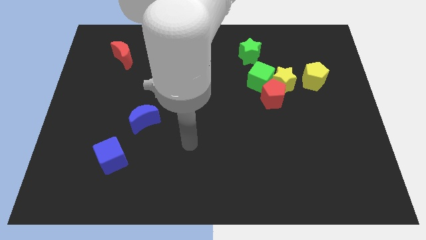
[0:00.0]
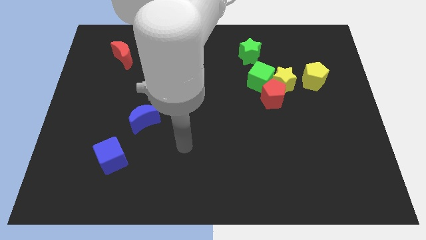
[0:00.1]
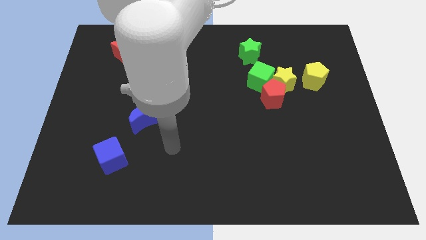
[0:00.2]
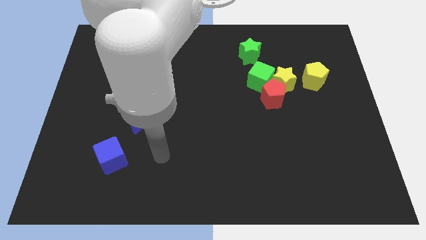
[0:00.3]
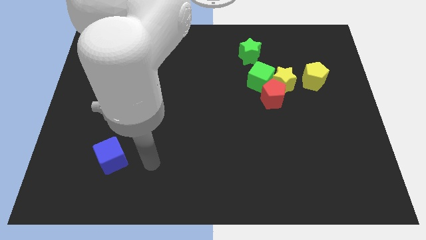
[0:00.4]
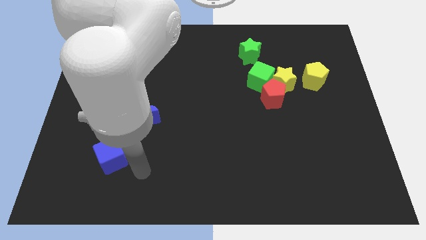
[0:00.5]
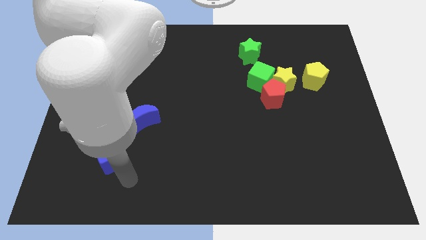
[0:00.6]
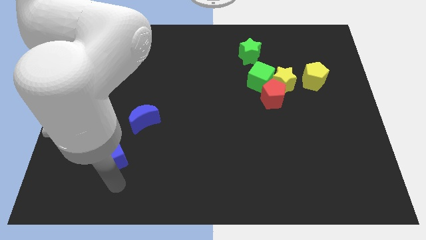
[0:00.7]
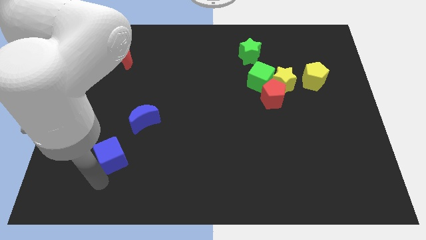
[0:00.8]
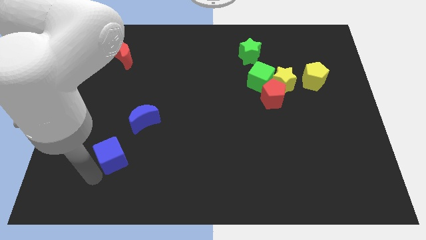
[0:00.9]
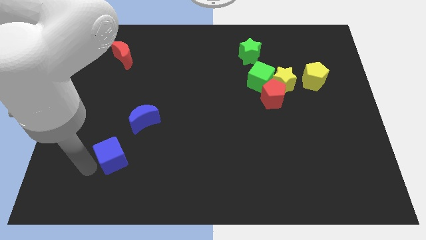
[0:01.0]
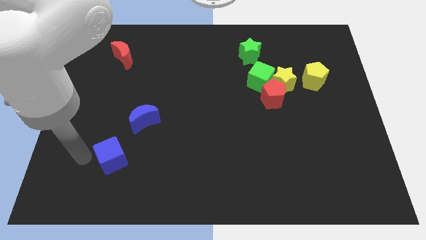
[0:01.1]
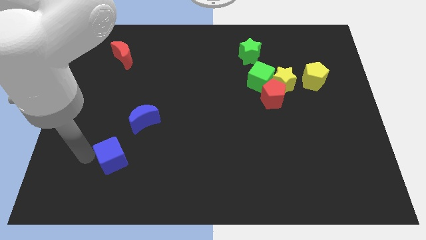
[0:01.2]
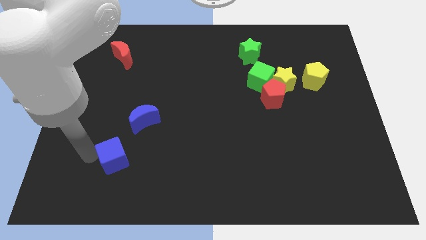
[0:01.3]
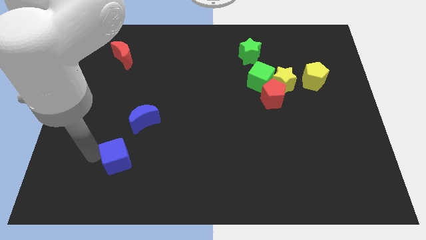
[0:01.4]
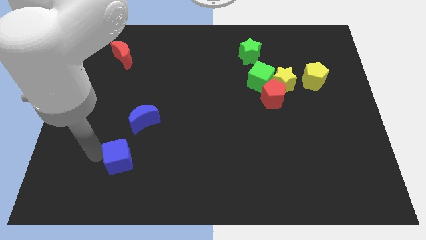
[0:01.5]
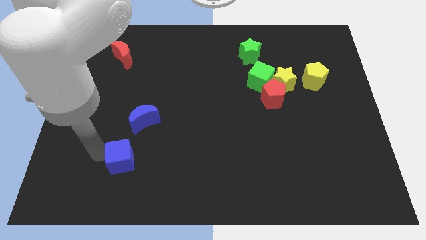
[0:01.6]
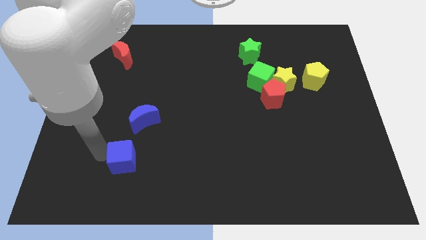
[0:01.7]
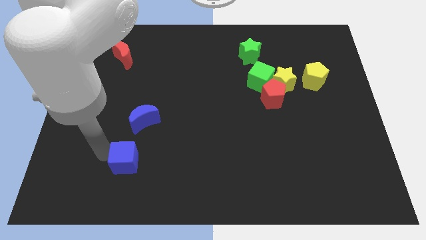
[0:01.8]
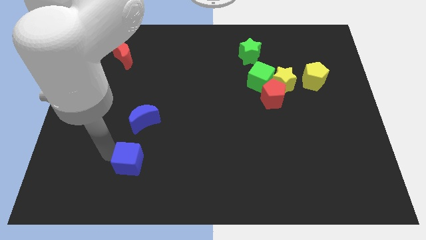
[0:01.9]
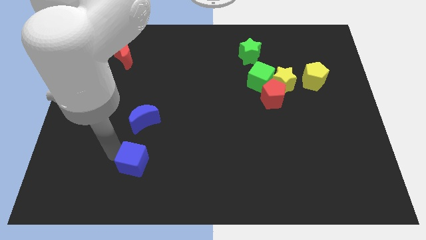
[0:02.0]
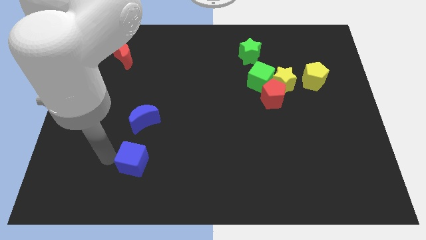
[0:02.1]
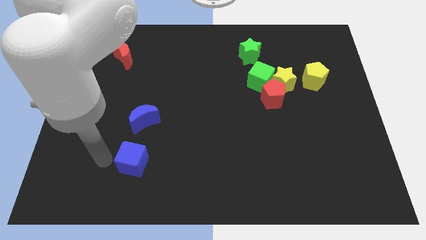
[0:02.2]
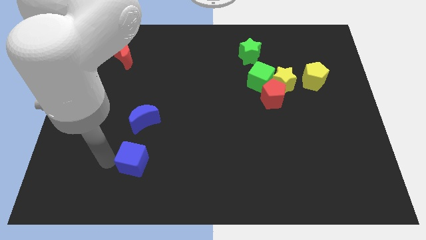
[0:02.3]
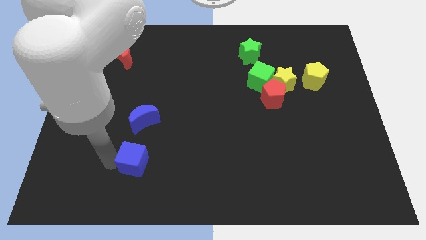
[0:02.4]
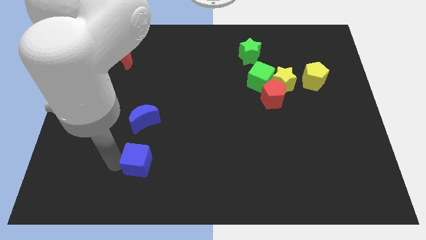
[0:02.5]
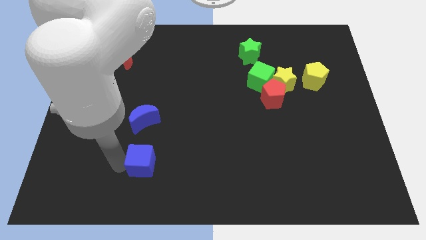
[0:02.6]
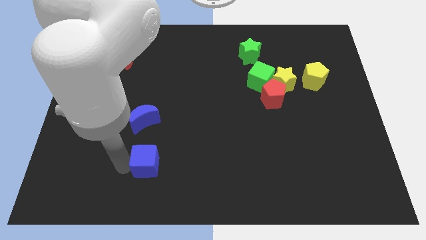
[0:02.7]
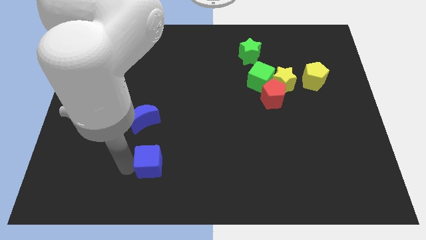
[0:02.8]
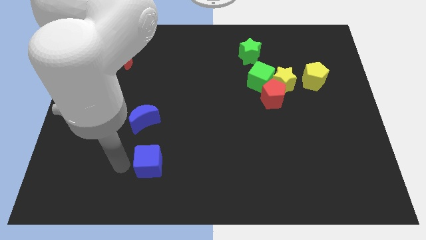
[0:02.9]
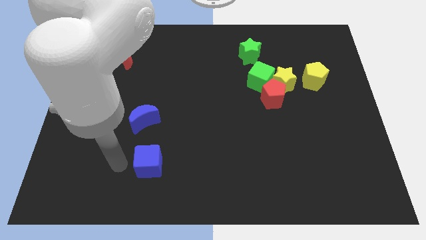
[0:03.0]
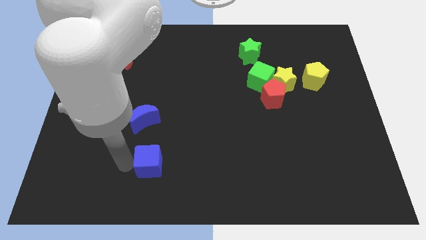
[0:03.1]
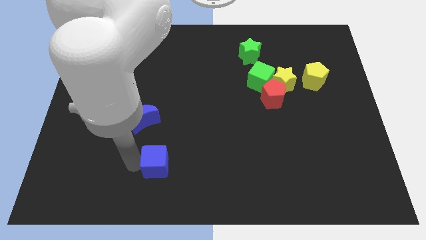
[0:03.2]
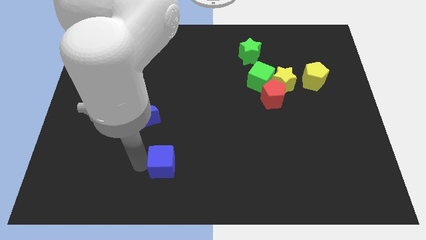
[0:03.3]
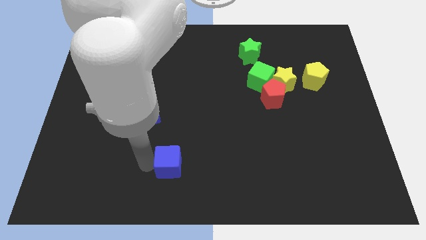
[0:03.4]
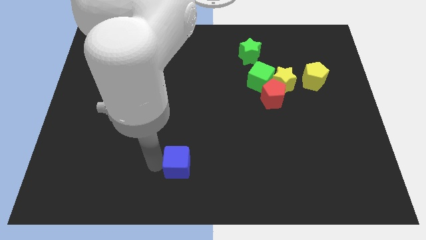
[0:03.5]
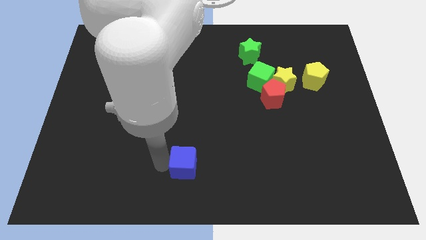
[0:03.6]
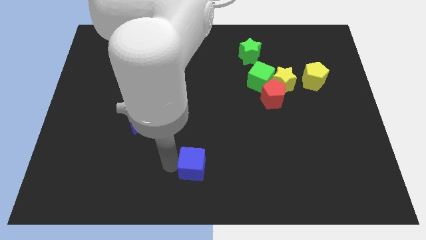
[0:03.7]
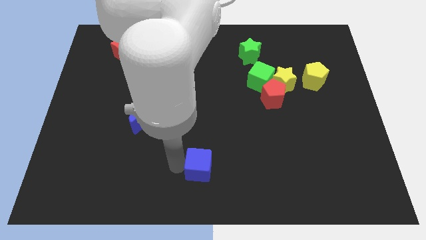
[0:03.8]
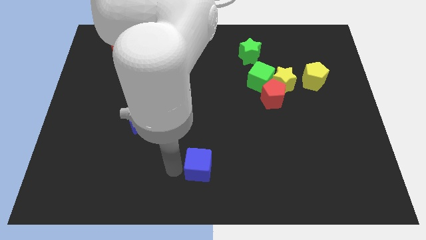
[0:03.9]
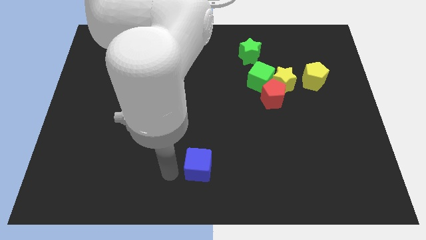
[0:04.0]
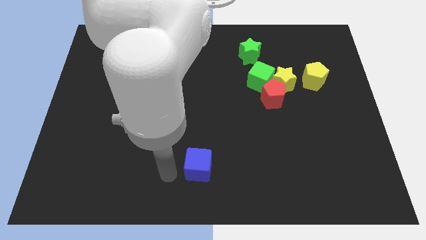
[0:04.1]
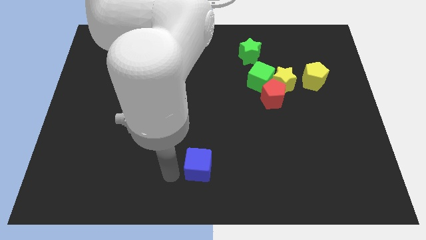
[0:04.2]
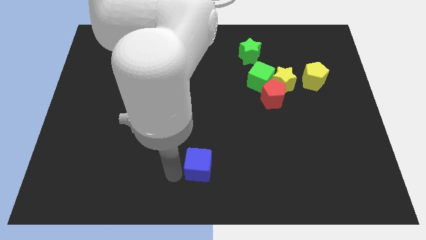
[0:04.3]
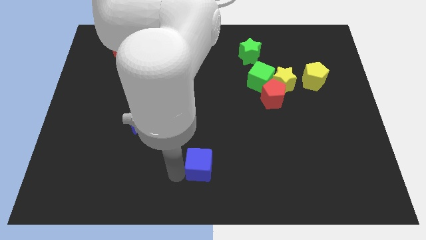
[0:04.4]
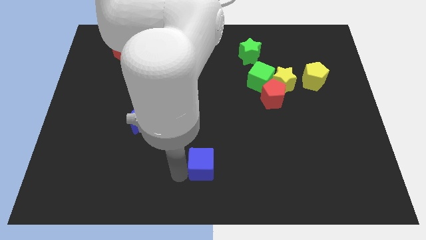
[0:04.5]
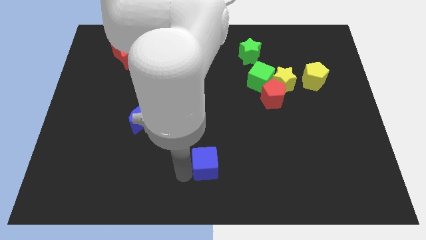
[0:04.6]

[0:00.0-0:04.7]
slide the blue cube to the right

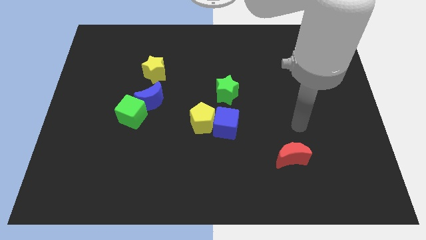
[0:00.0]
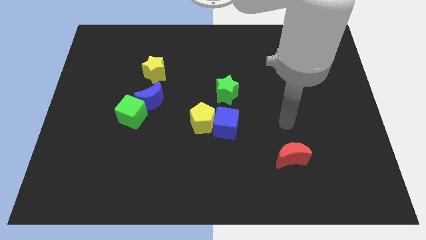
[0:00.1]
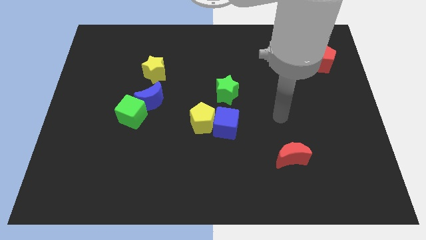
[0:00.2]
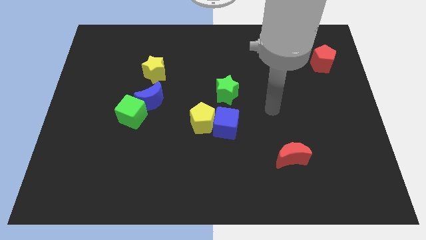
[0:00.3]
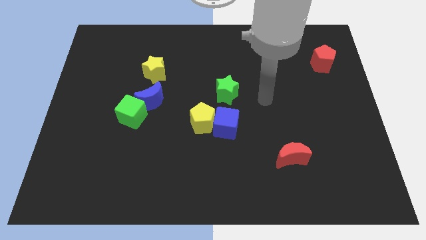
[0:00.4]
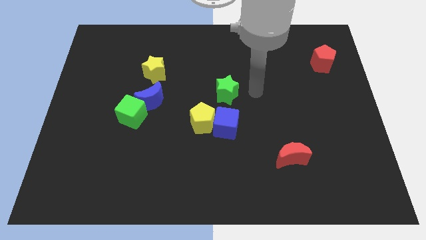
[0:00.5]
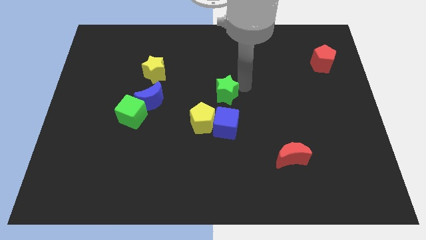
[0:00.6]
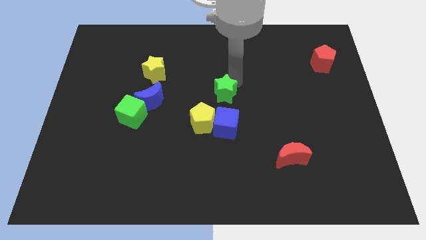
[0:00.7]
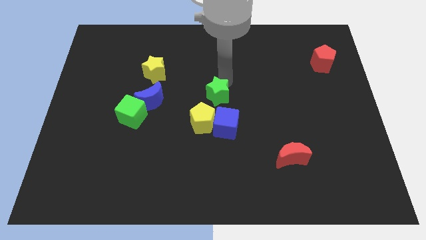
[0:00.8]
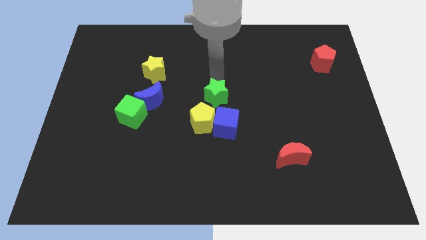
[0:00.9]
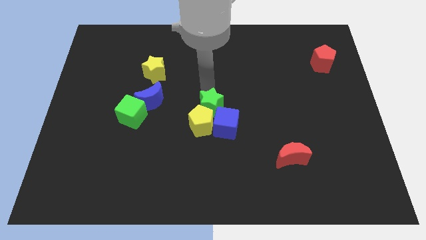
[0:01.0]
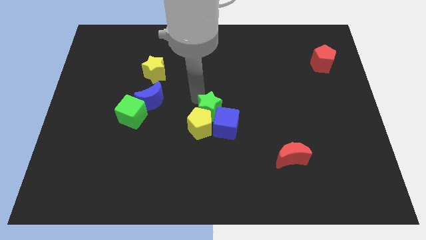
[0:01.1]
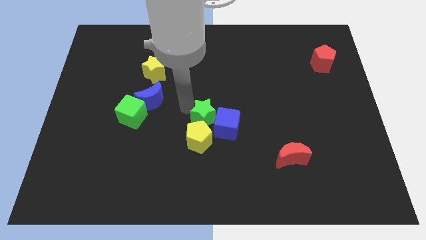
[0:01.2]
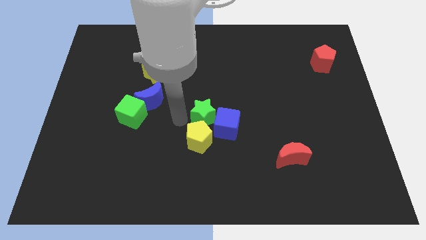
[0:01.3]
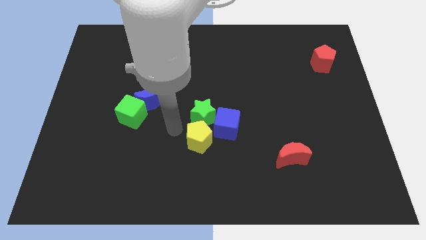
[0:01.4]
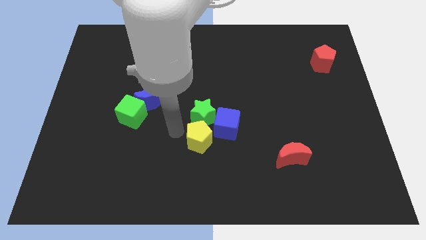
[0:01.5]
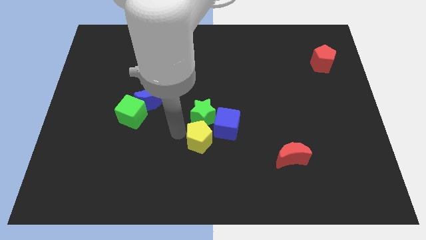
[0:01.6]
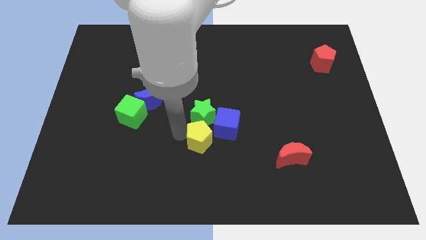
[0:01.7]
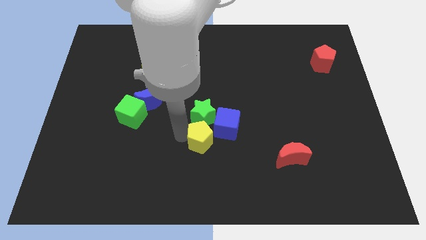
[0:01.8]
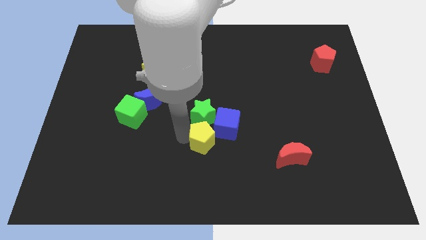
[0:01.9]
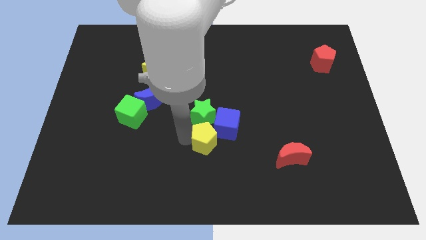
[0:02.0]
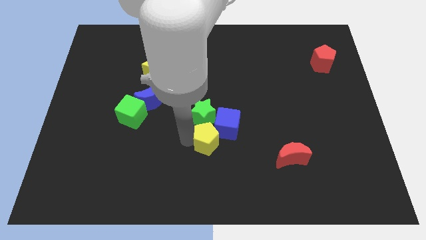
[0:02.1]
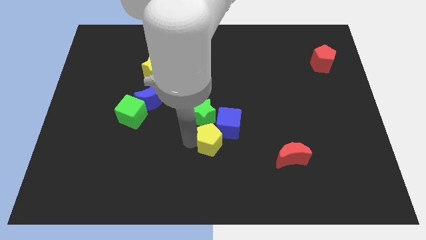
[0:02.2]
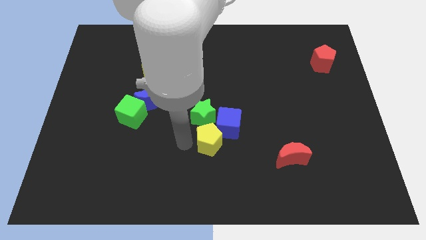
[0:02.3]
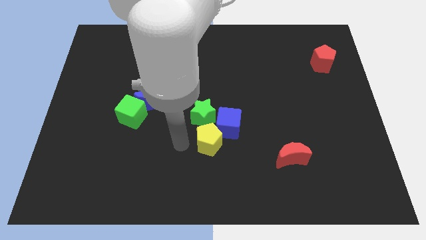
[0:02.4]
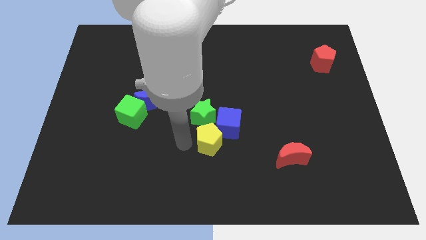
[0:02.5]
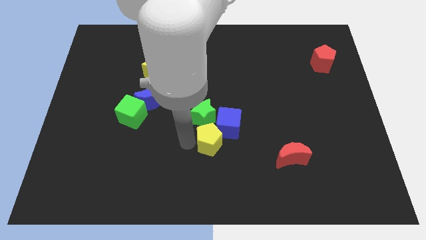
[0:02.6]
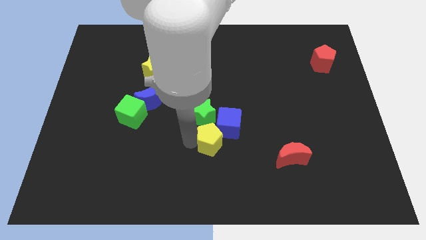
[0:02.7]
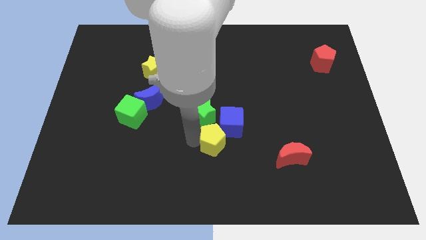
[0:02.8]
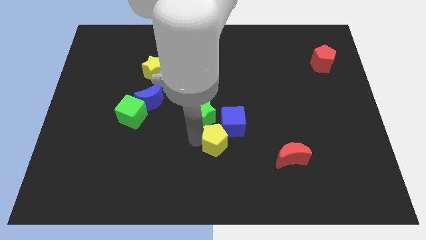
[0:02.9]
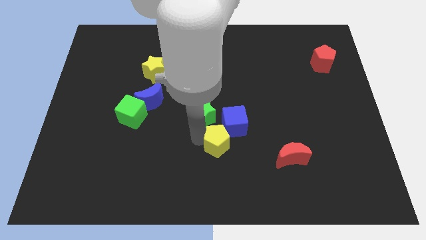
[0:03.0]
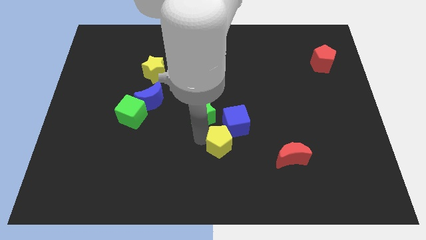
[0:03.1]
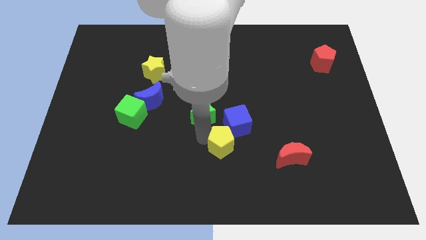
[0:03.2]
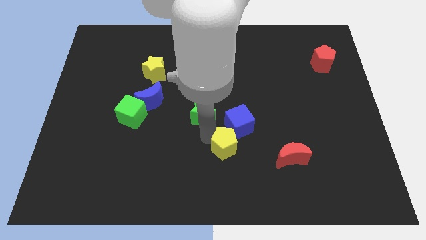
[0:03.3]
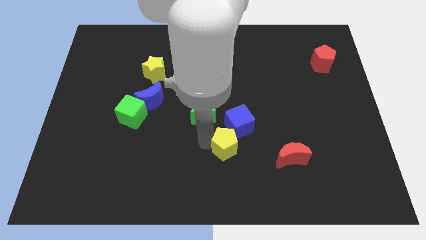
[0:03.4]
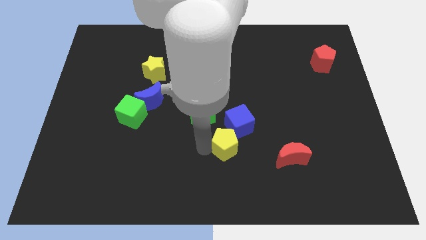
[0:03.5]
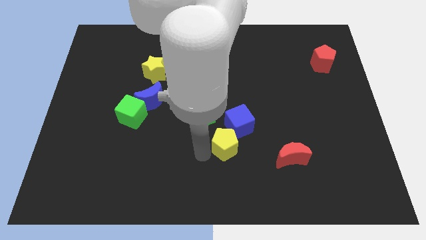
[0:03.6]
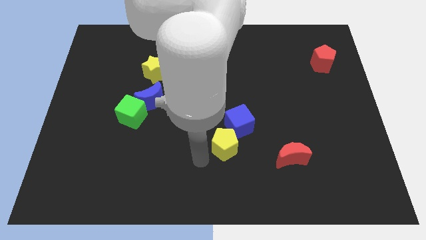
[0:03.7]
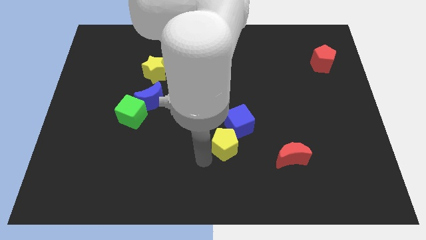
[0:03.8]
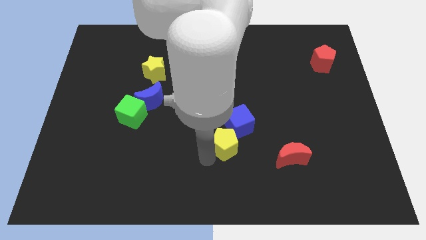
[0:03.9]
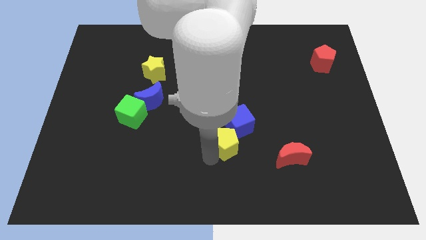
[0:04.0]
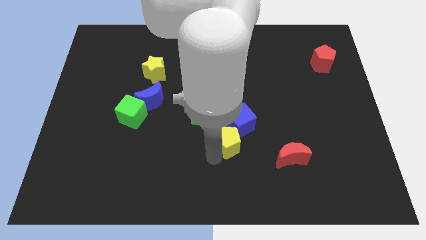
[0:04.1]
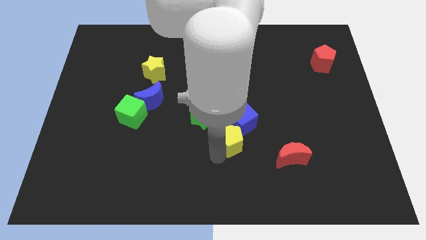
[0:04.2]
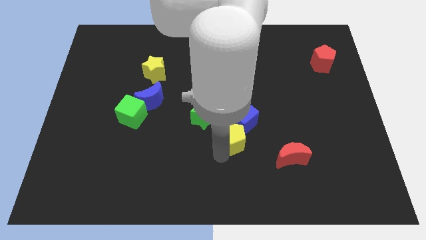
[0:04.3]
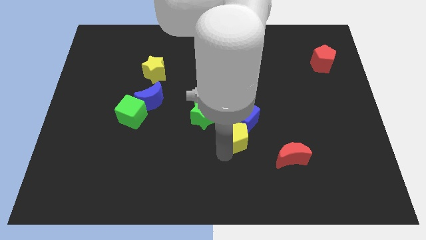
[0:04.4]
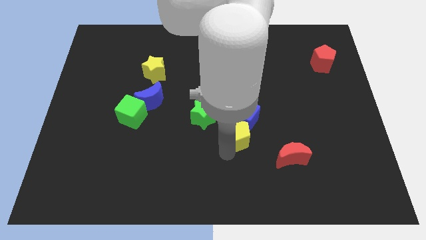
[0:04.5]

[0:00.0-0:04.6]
move the yellow pentagon slightly right
